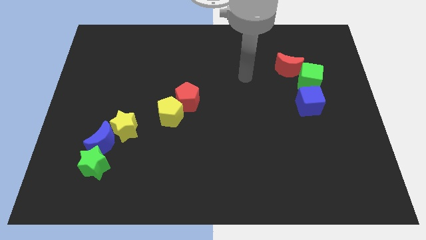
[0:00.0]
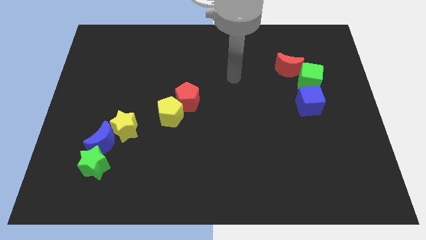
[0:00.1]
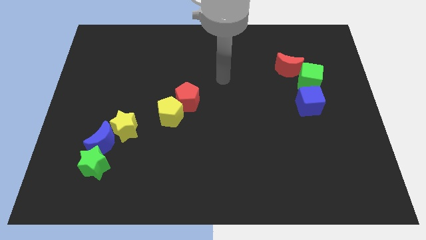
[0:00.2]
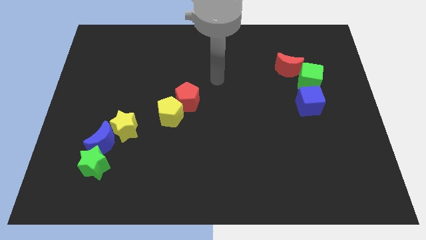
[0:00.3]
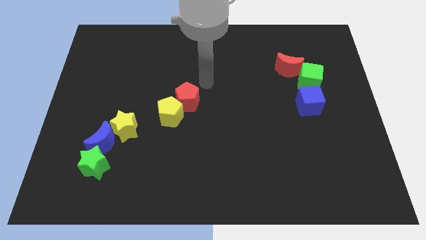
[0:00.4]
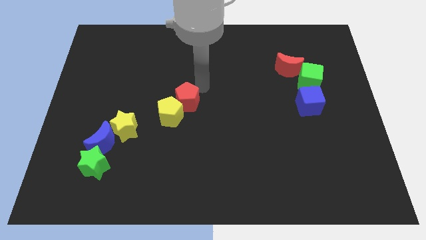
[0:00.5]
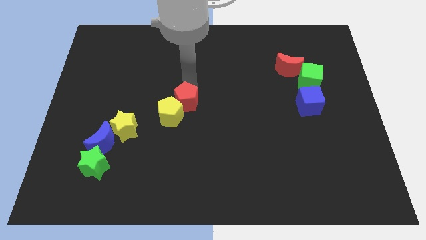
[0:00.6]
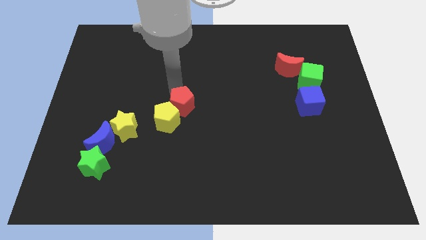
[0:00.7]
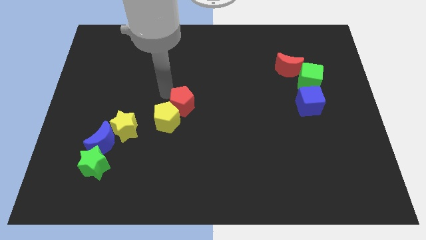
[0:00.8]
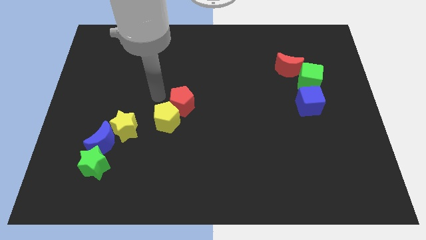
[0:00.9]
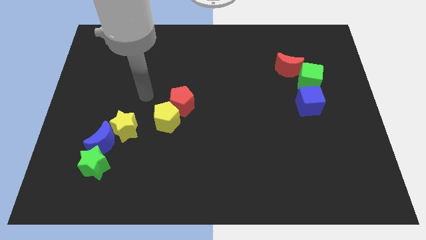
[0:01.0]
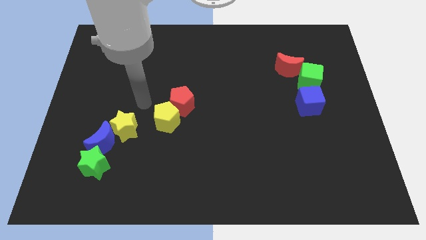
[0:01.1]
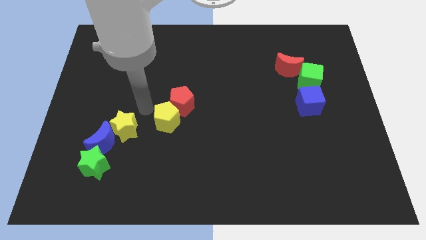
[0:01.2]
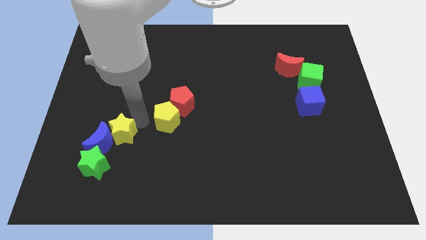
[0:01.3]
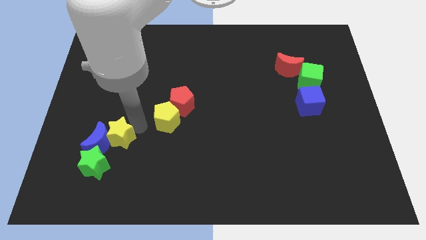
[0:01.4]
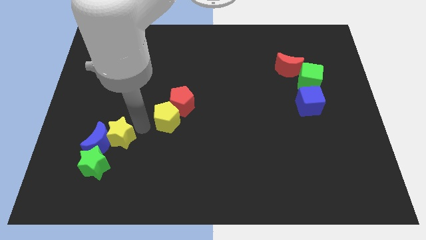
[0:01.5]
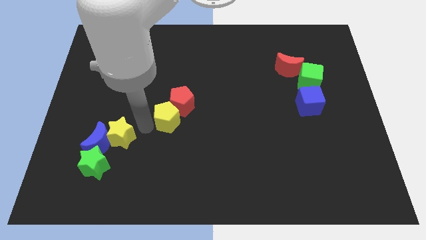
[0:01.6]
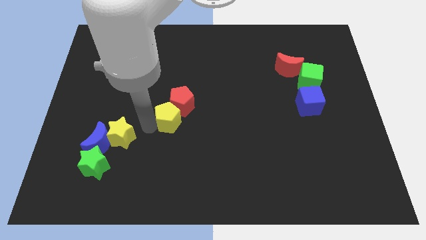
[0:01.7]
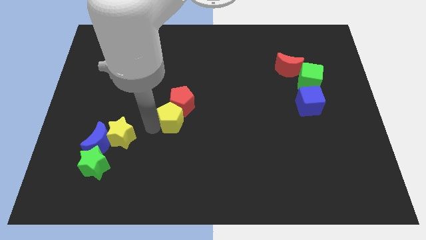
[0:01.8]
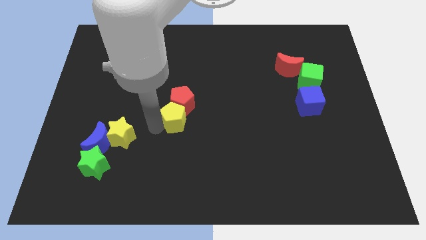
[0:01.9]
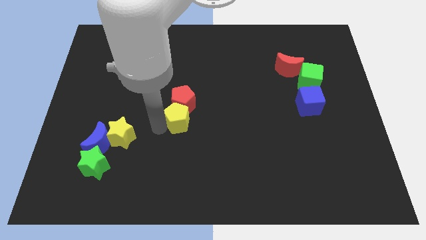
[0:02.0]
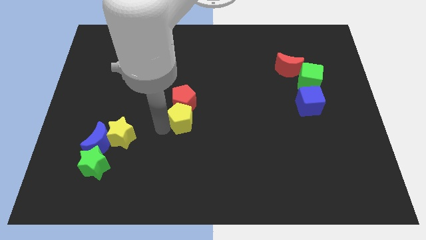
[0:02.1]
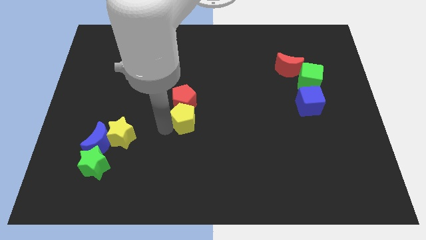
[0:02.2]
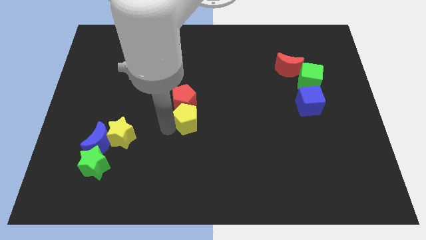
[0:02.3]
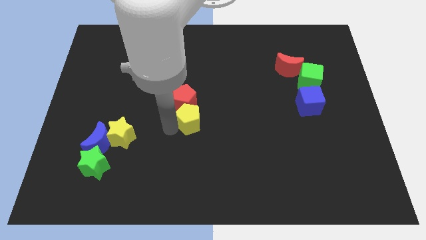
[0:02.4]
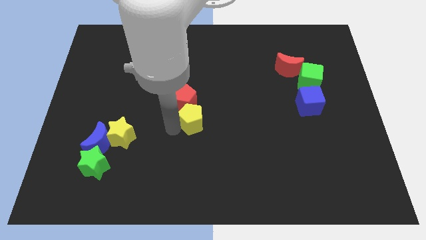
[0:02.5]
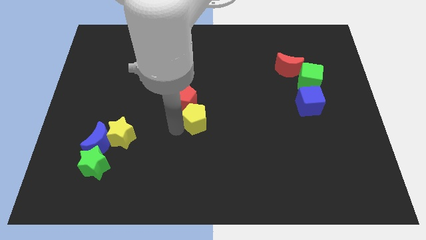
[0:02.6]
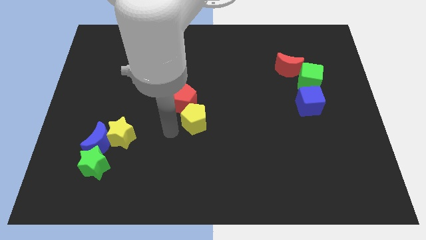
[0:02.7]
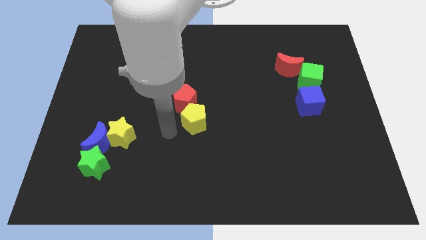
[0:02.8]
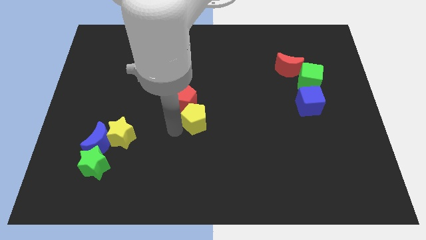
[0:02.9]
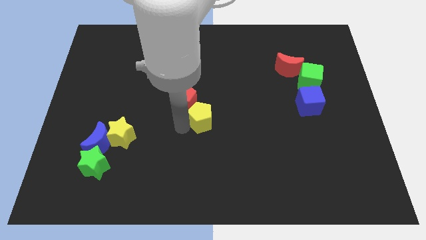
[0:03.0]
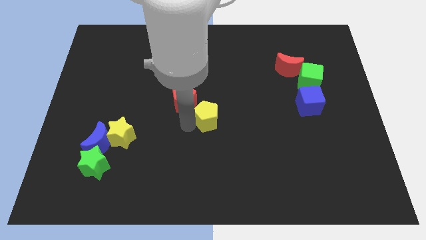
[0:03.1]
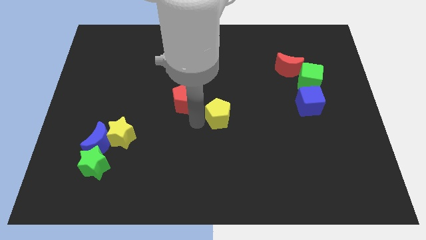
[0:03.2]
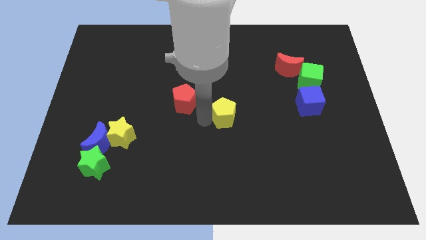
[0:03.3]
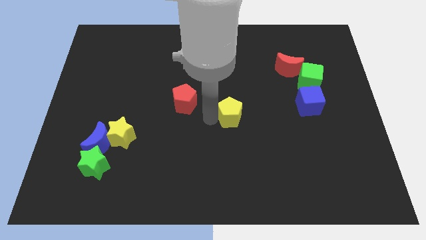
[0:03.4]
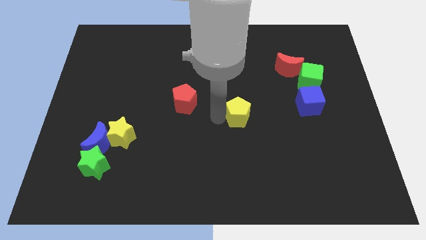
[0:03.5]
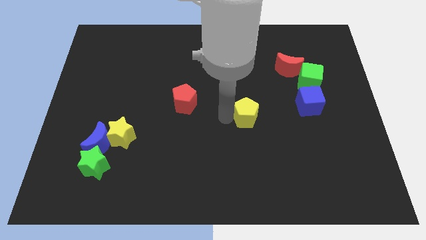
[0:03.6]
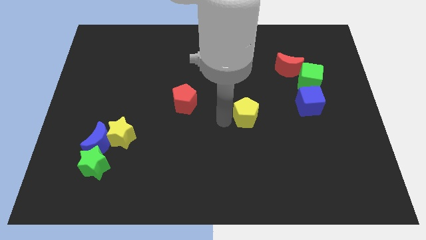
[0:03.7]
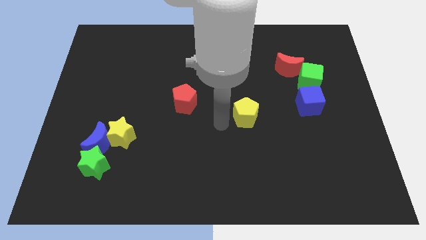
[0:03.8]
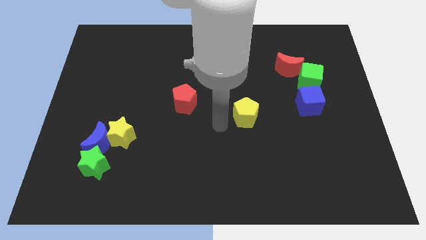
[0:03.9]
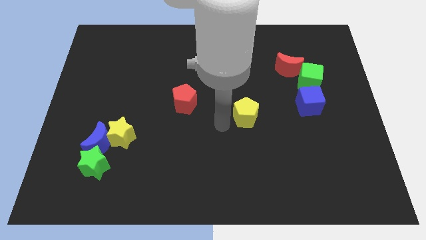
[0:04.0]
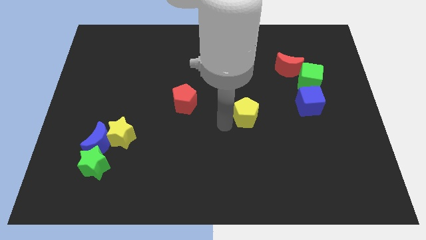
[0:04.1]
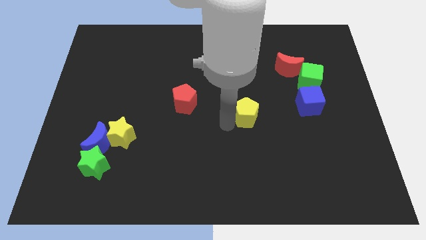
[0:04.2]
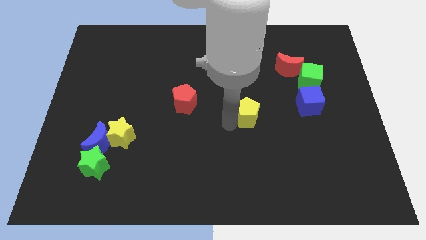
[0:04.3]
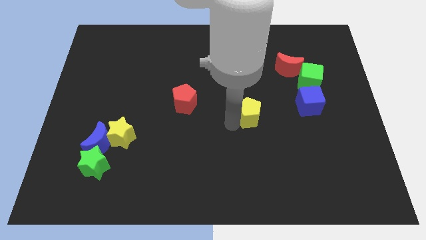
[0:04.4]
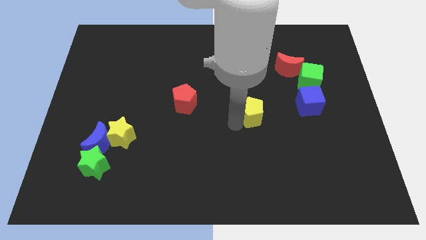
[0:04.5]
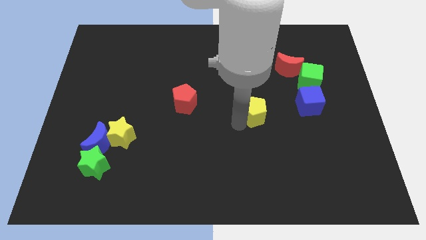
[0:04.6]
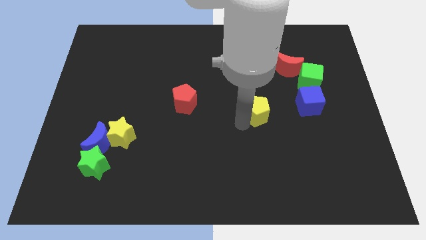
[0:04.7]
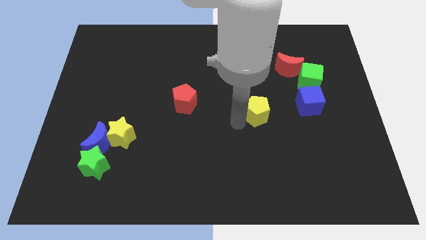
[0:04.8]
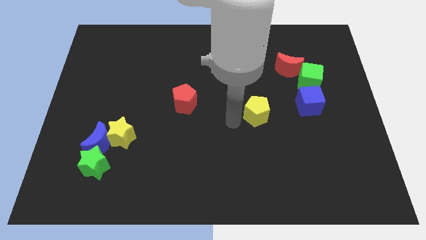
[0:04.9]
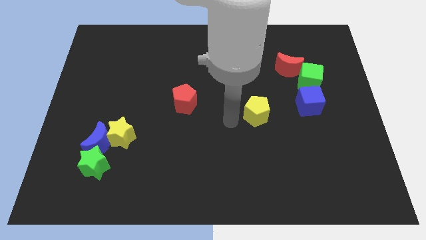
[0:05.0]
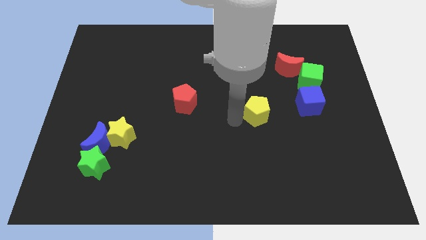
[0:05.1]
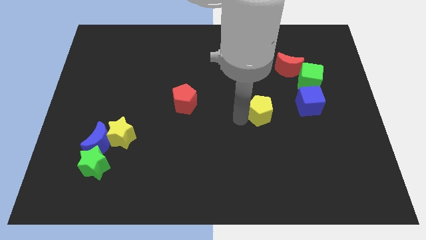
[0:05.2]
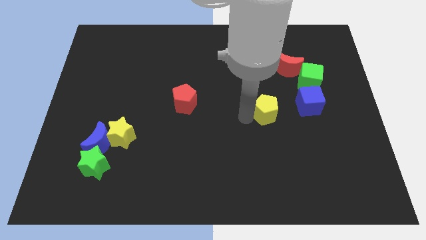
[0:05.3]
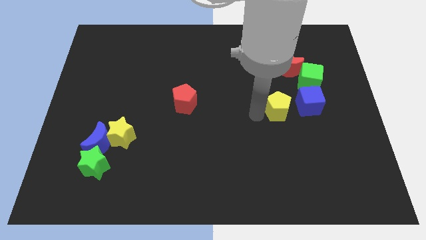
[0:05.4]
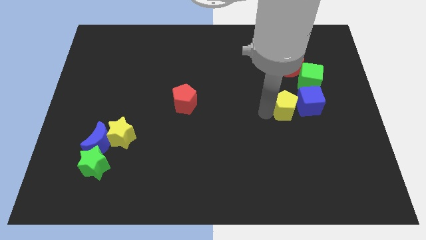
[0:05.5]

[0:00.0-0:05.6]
push the yellow pentagon next to the blue cube

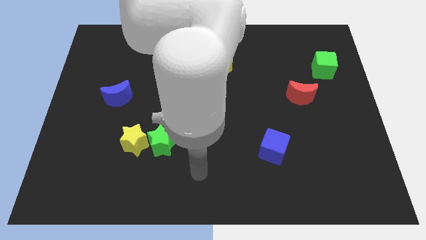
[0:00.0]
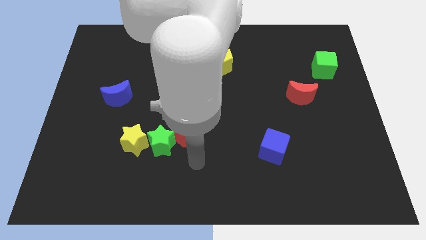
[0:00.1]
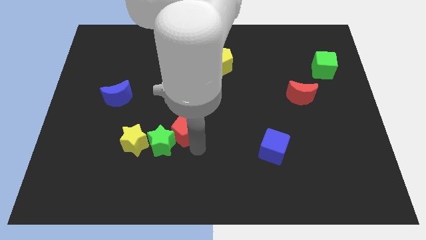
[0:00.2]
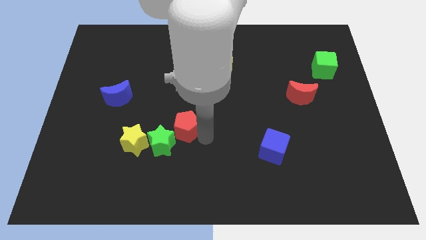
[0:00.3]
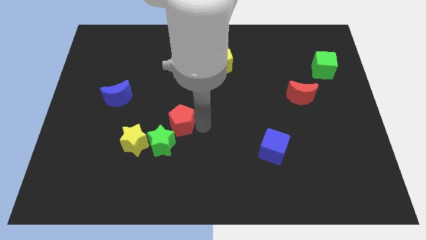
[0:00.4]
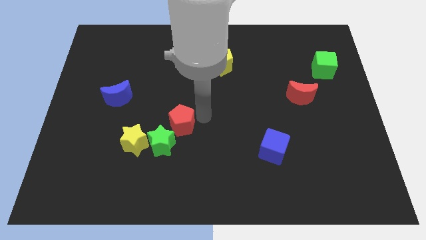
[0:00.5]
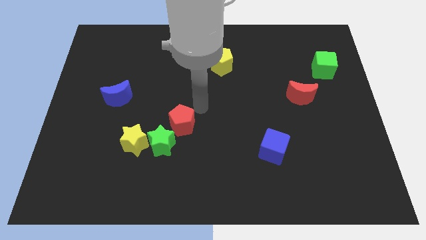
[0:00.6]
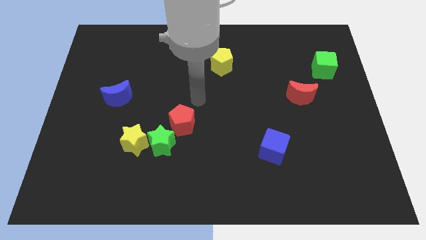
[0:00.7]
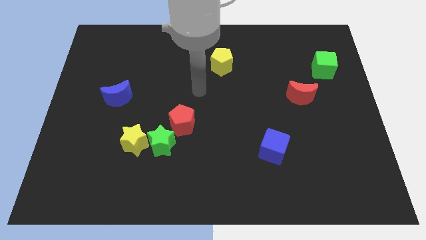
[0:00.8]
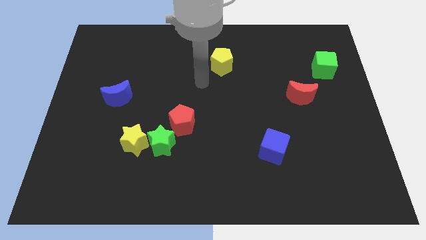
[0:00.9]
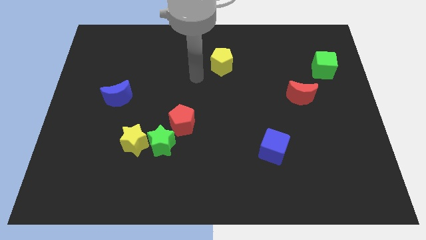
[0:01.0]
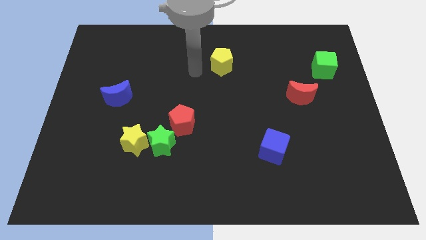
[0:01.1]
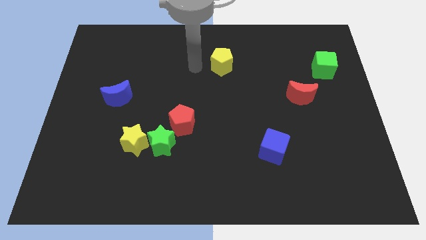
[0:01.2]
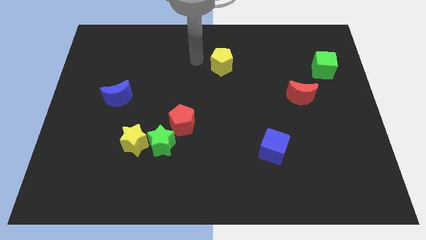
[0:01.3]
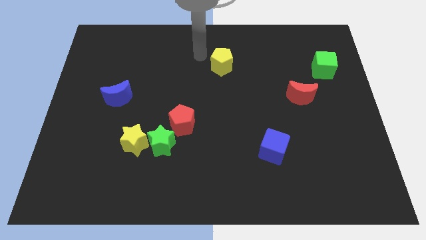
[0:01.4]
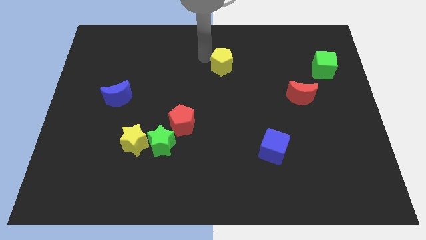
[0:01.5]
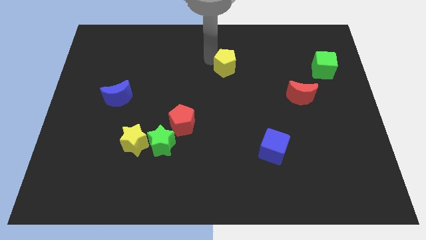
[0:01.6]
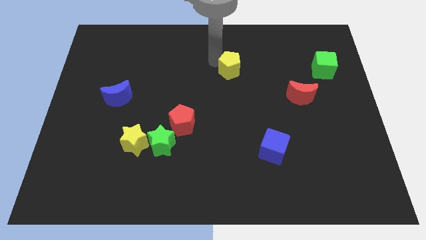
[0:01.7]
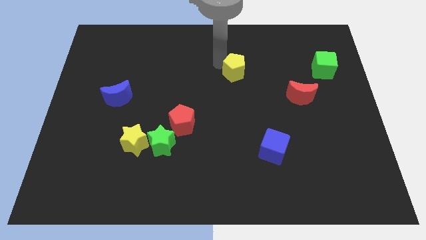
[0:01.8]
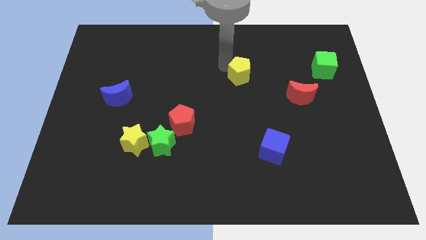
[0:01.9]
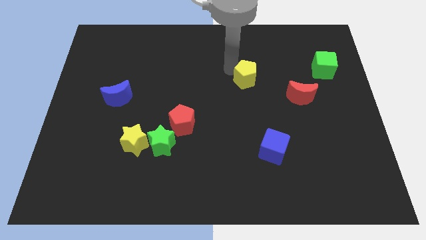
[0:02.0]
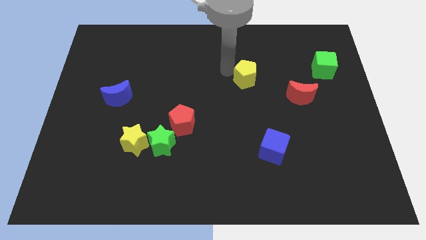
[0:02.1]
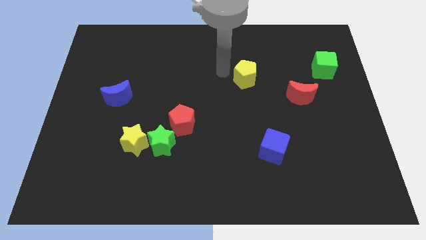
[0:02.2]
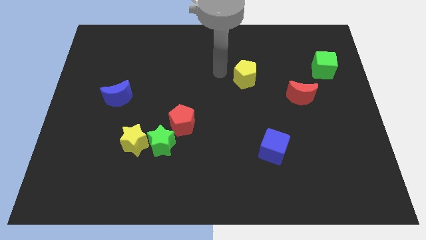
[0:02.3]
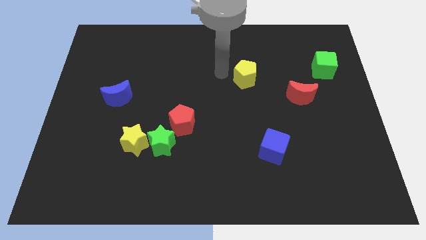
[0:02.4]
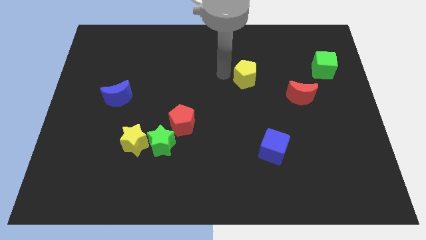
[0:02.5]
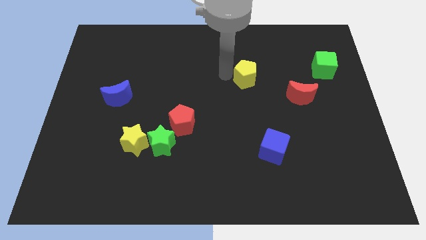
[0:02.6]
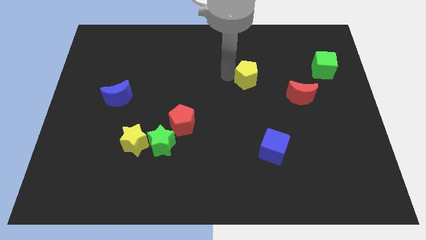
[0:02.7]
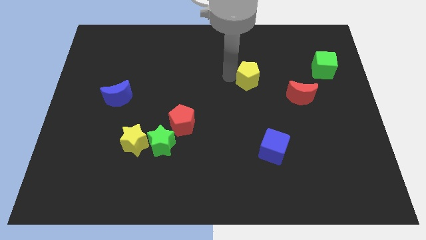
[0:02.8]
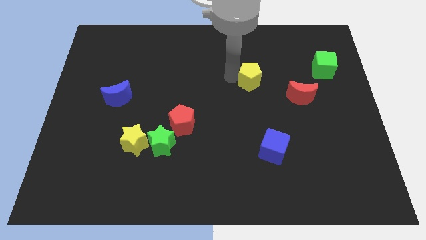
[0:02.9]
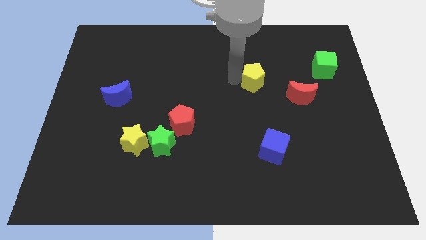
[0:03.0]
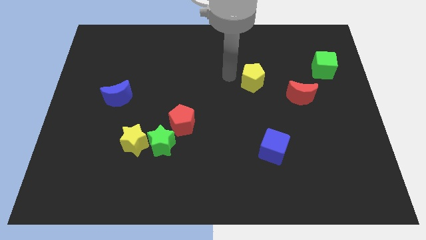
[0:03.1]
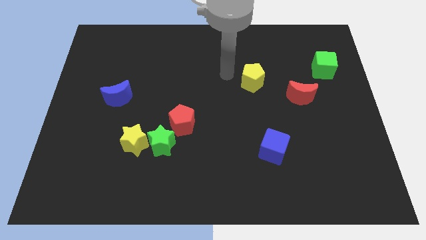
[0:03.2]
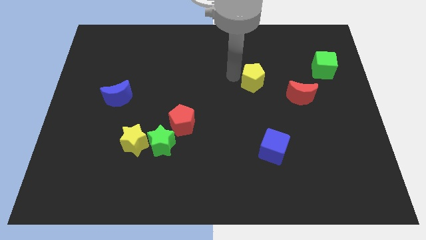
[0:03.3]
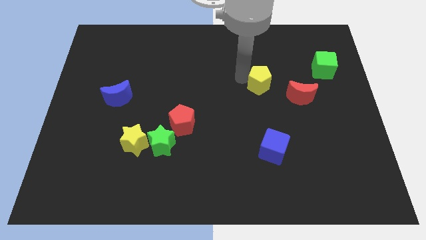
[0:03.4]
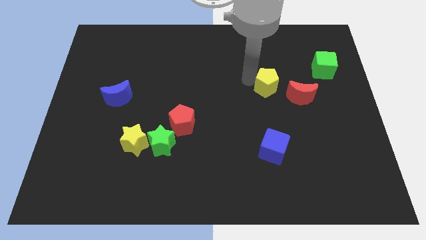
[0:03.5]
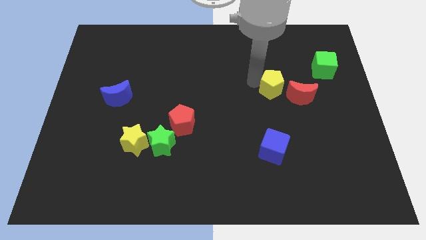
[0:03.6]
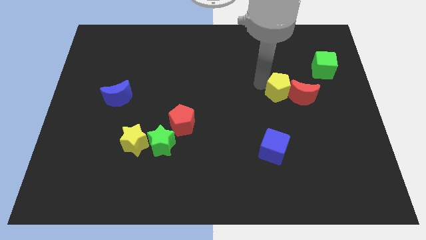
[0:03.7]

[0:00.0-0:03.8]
move the yellow pentagon towards the red moon
